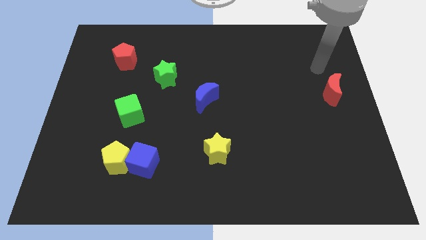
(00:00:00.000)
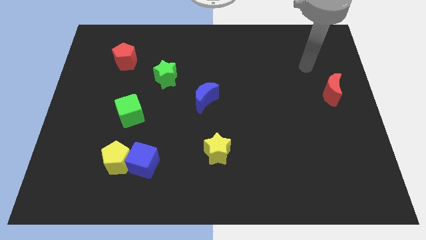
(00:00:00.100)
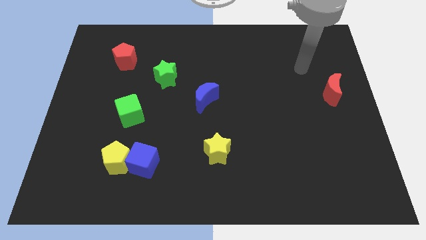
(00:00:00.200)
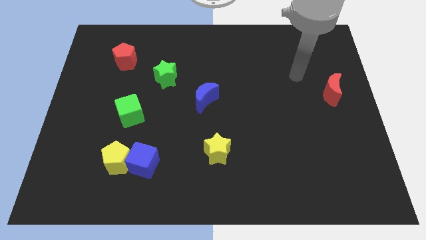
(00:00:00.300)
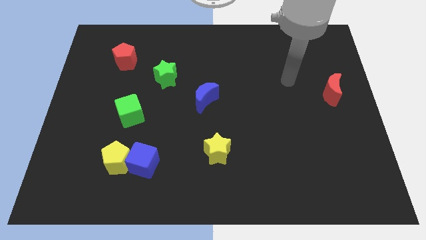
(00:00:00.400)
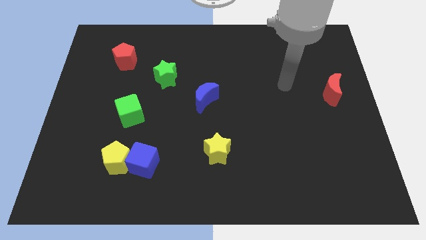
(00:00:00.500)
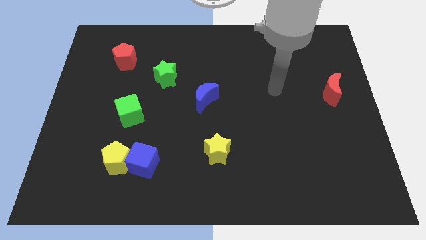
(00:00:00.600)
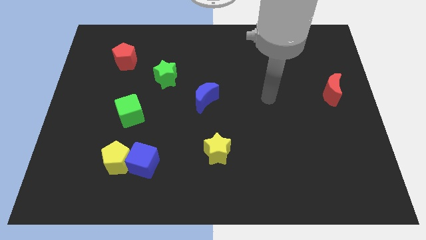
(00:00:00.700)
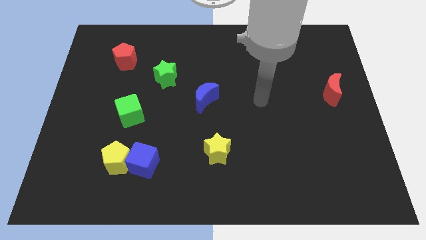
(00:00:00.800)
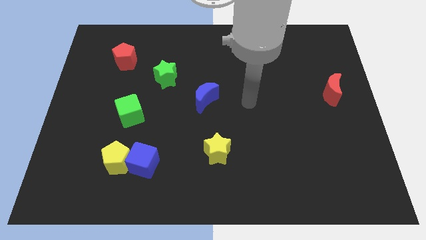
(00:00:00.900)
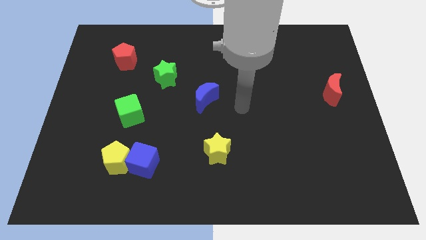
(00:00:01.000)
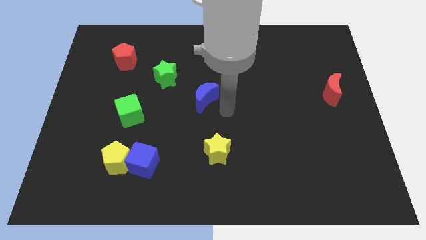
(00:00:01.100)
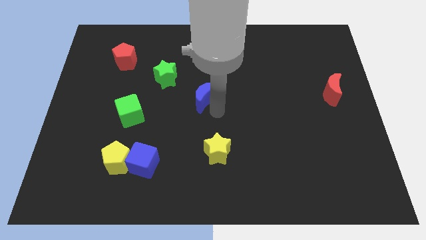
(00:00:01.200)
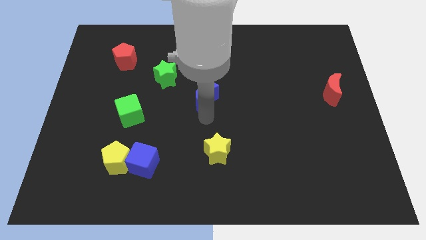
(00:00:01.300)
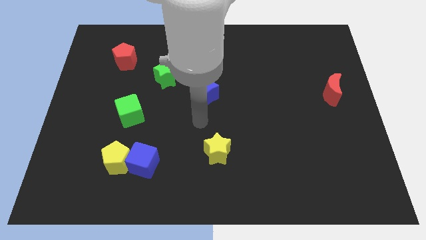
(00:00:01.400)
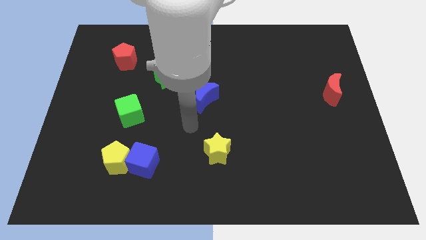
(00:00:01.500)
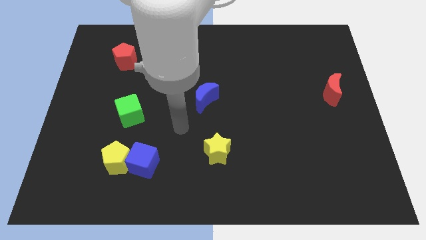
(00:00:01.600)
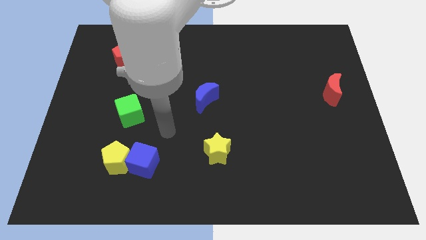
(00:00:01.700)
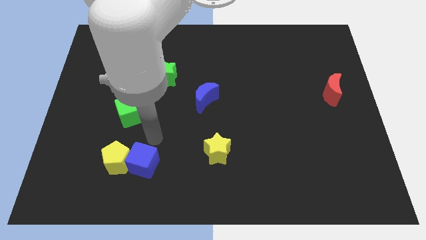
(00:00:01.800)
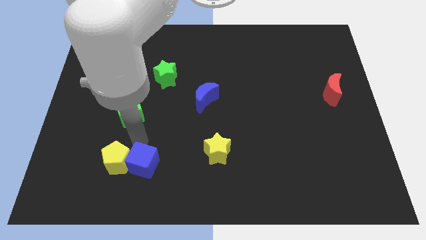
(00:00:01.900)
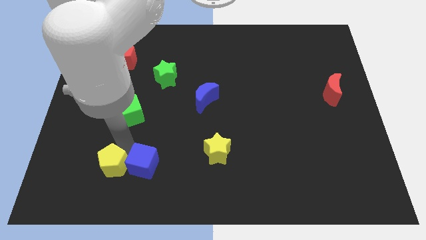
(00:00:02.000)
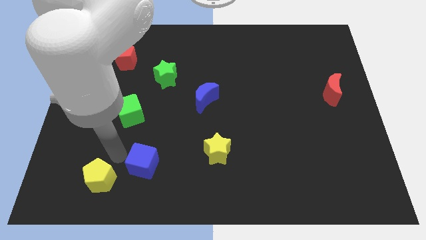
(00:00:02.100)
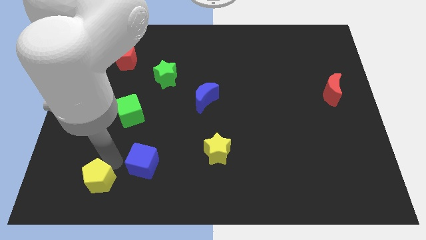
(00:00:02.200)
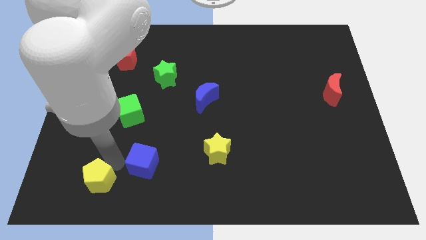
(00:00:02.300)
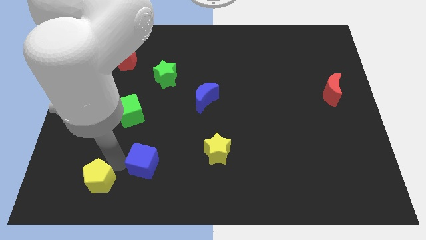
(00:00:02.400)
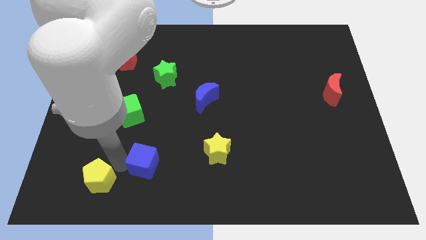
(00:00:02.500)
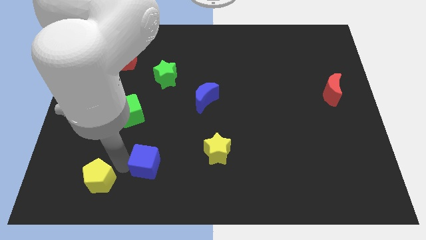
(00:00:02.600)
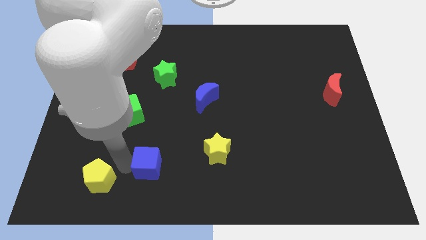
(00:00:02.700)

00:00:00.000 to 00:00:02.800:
pull the blue cube apart from the yellow pentagon

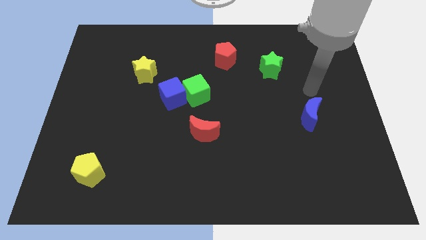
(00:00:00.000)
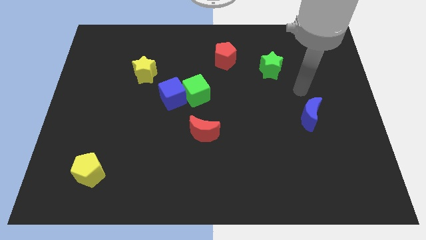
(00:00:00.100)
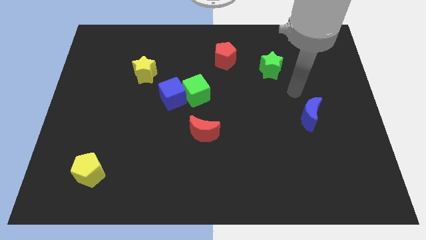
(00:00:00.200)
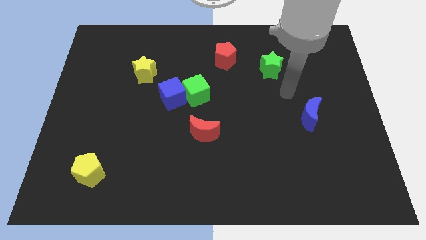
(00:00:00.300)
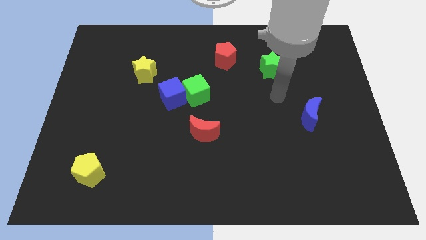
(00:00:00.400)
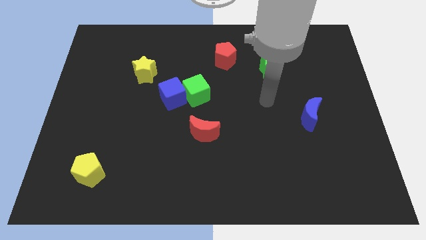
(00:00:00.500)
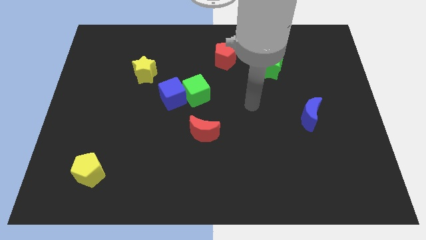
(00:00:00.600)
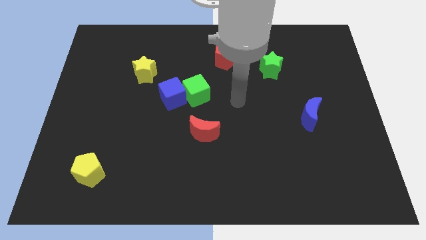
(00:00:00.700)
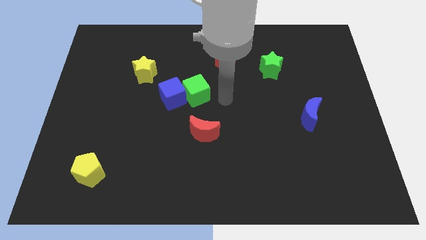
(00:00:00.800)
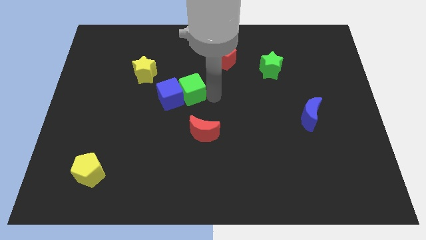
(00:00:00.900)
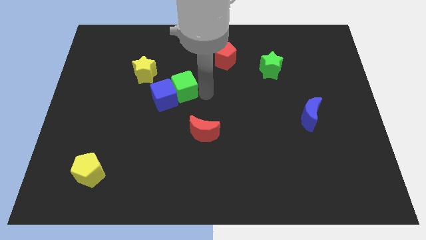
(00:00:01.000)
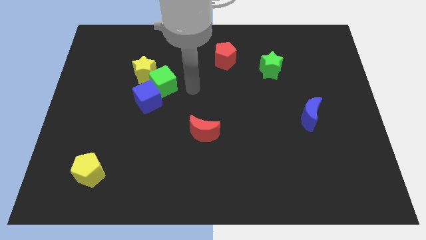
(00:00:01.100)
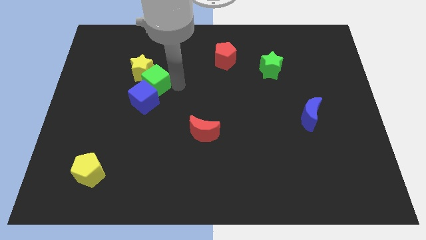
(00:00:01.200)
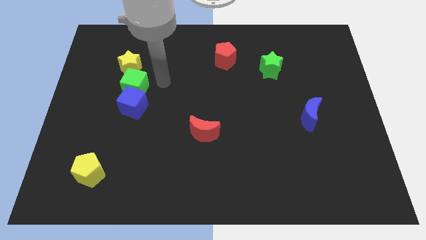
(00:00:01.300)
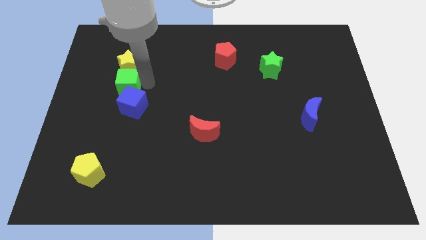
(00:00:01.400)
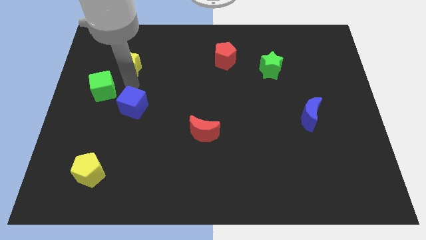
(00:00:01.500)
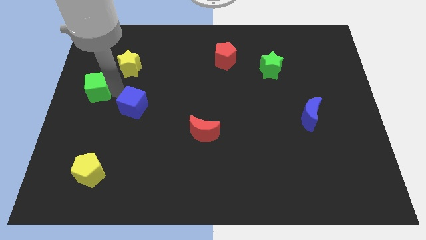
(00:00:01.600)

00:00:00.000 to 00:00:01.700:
separate the blue cube from the green cube

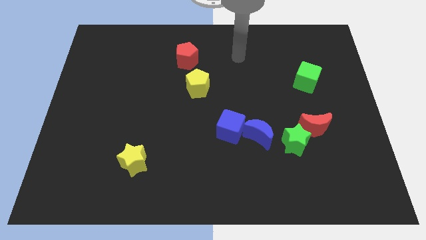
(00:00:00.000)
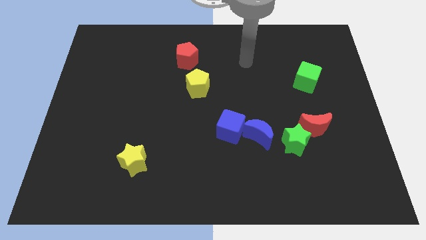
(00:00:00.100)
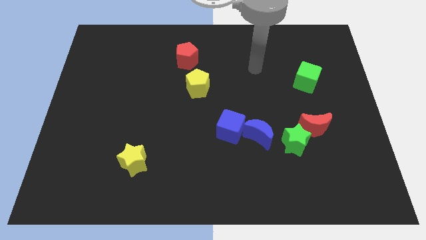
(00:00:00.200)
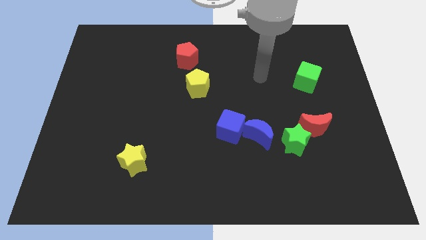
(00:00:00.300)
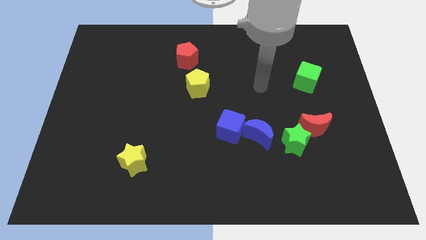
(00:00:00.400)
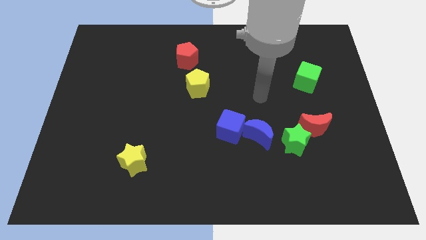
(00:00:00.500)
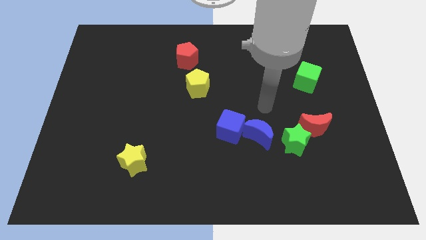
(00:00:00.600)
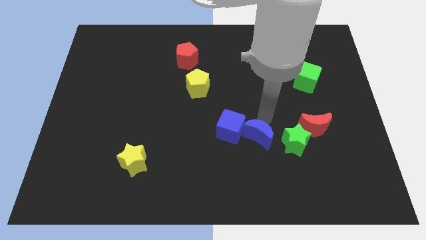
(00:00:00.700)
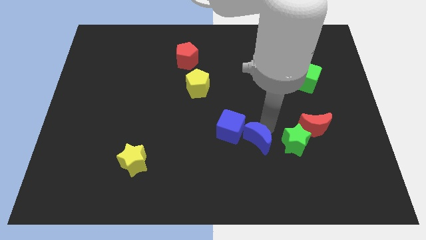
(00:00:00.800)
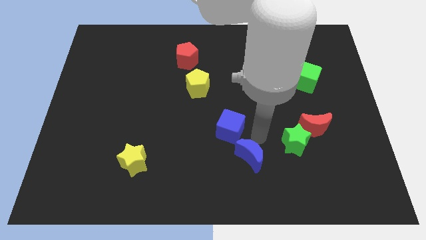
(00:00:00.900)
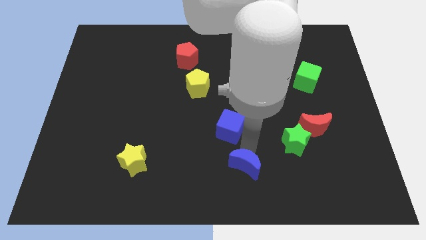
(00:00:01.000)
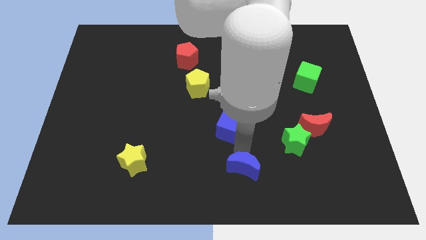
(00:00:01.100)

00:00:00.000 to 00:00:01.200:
pull the blue cube apart from the blue moon

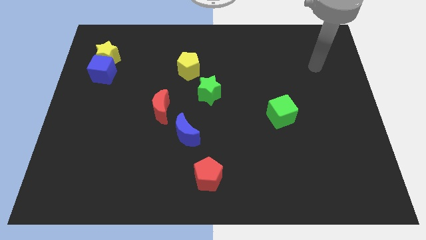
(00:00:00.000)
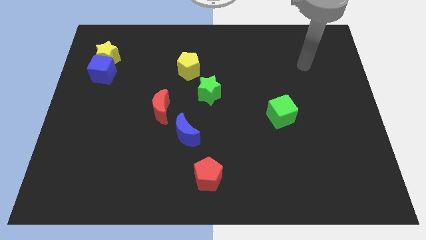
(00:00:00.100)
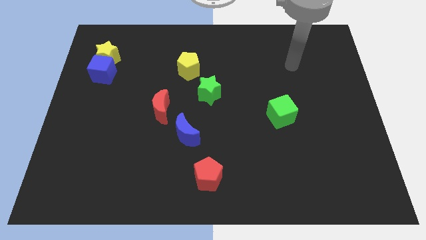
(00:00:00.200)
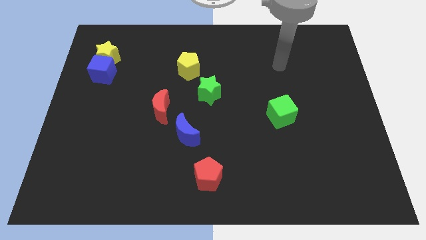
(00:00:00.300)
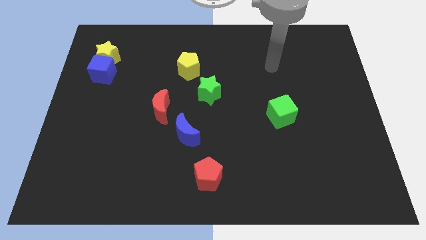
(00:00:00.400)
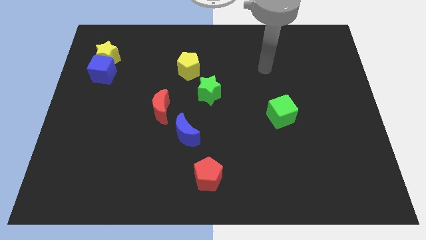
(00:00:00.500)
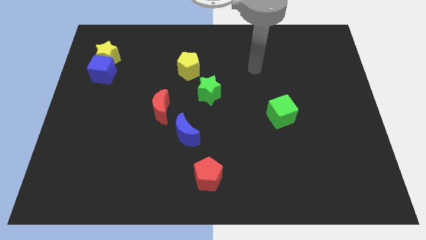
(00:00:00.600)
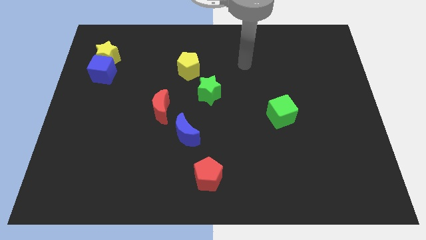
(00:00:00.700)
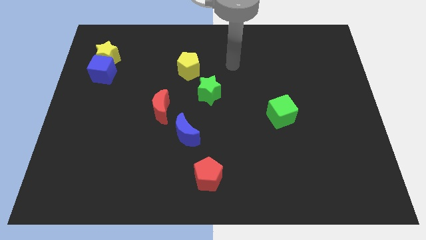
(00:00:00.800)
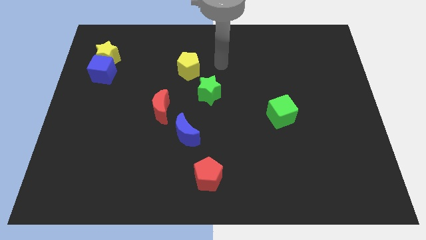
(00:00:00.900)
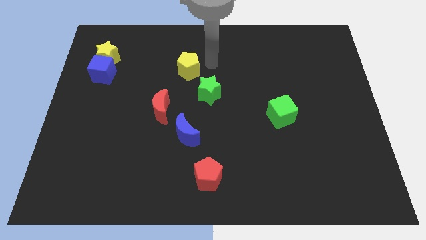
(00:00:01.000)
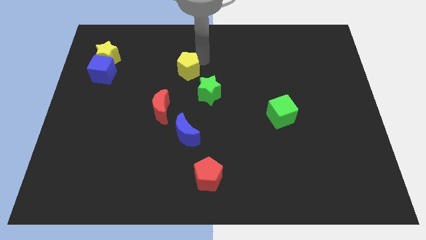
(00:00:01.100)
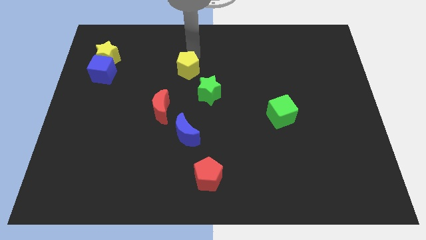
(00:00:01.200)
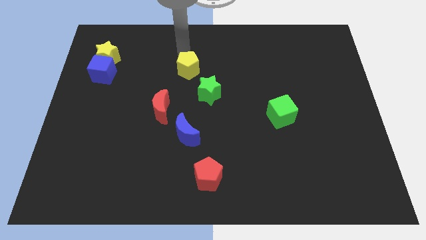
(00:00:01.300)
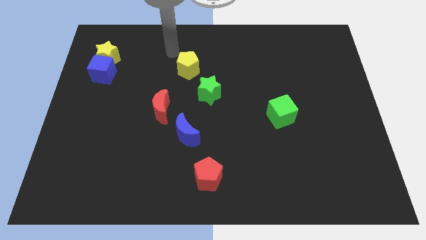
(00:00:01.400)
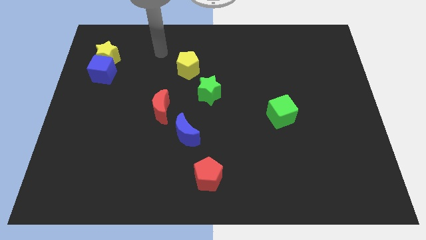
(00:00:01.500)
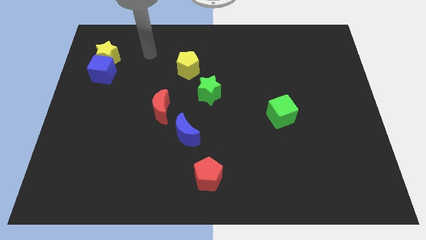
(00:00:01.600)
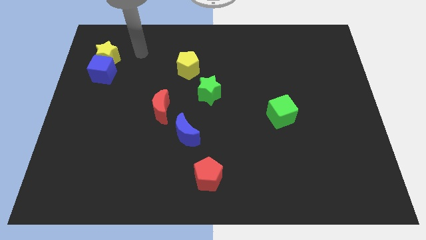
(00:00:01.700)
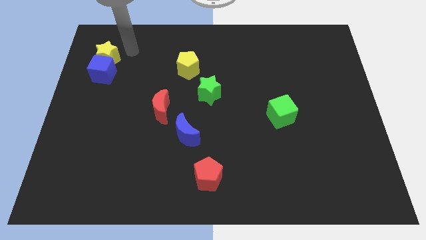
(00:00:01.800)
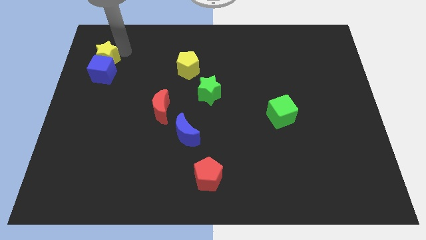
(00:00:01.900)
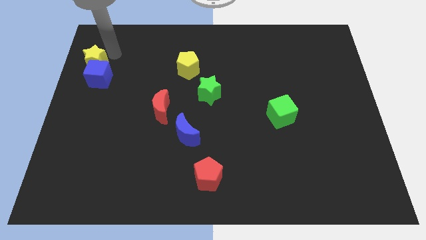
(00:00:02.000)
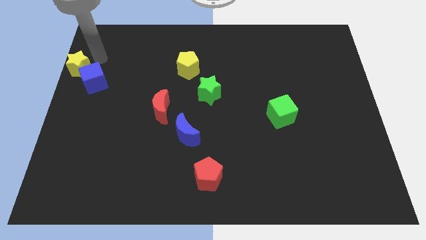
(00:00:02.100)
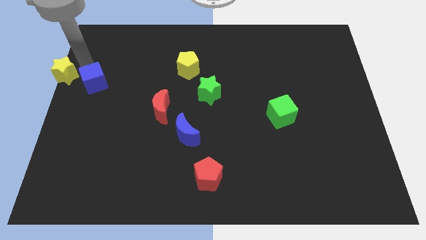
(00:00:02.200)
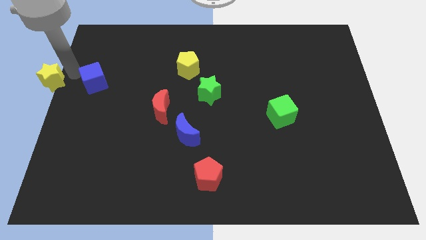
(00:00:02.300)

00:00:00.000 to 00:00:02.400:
separate the blue cube from the yellow star

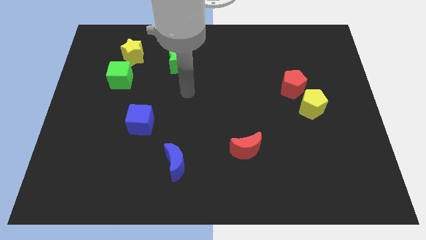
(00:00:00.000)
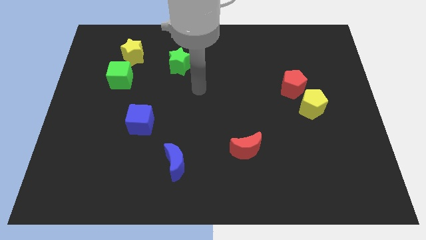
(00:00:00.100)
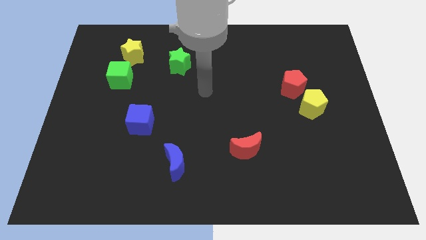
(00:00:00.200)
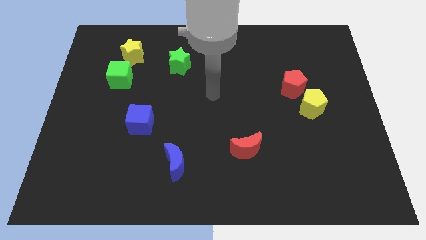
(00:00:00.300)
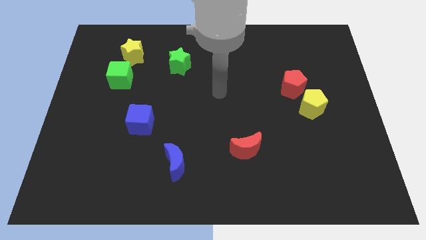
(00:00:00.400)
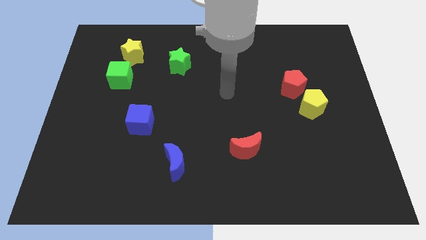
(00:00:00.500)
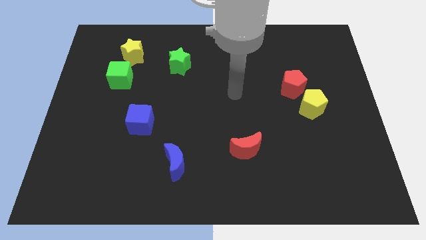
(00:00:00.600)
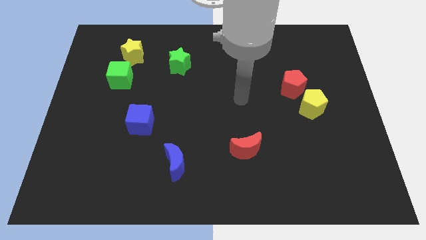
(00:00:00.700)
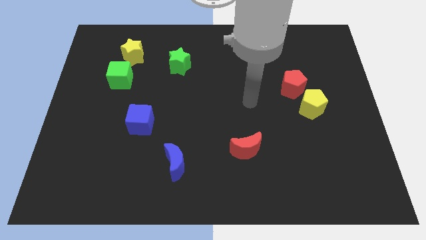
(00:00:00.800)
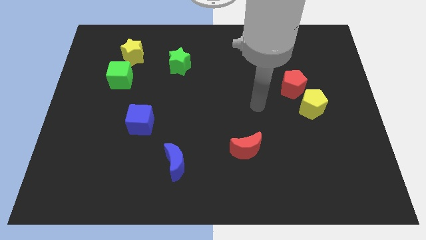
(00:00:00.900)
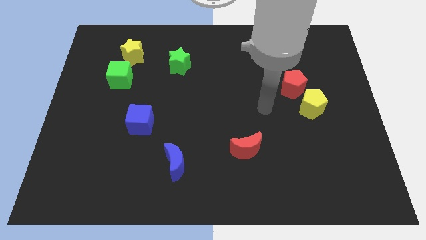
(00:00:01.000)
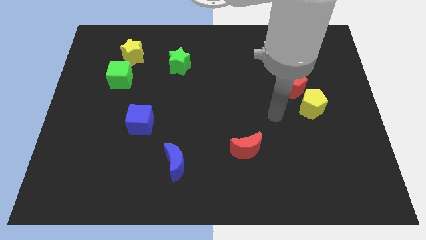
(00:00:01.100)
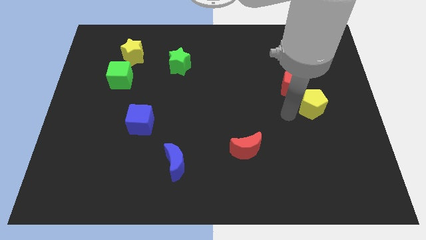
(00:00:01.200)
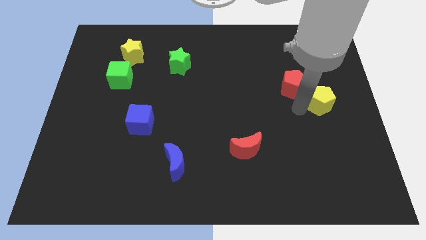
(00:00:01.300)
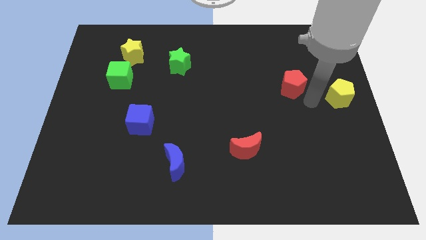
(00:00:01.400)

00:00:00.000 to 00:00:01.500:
pull the red pentagon apart from the yellow pentagon
